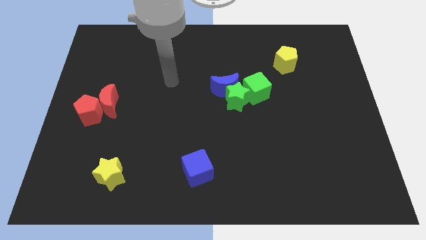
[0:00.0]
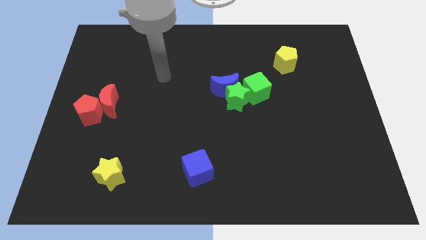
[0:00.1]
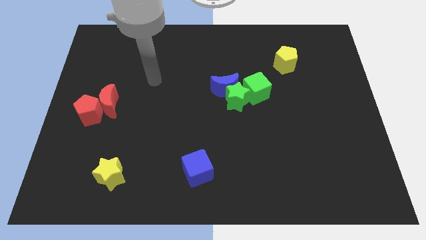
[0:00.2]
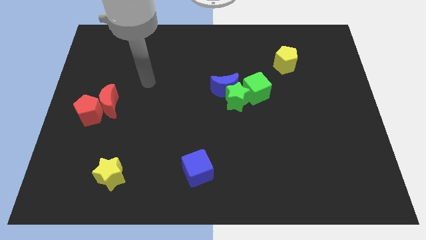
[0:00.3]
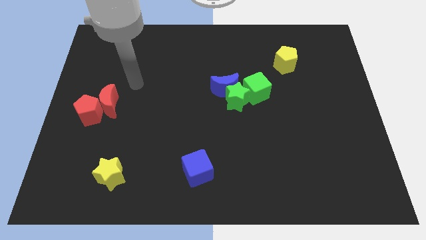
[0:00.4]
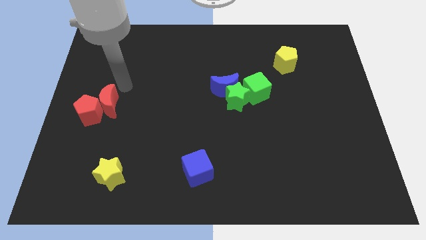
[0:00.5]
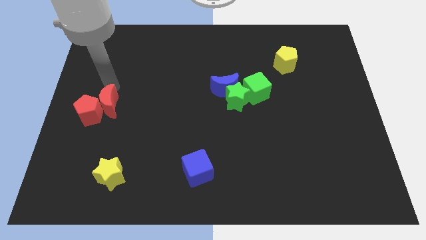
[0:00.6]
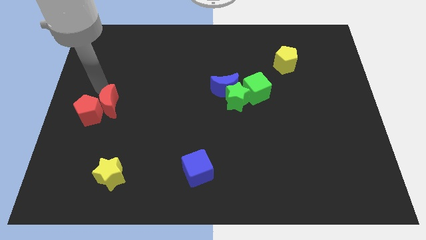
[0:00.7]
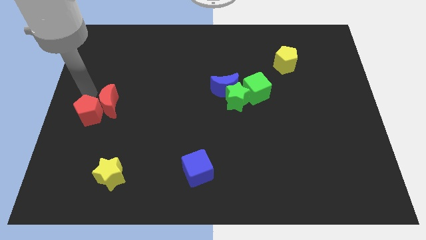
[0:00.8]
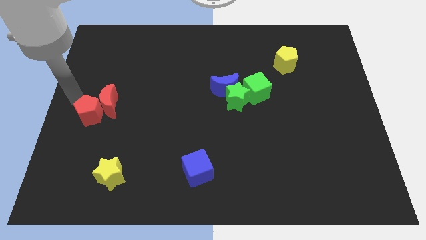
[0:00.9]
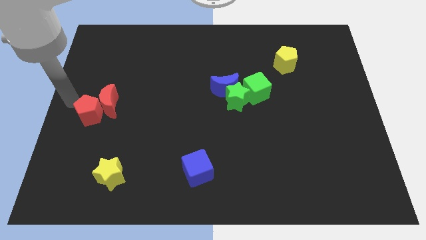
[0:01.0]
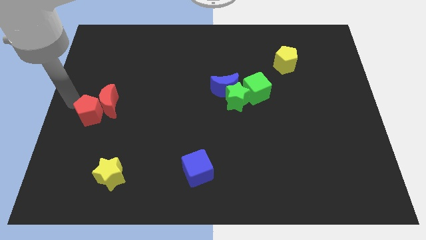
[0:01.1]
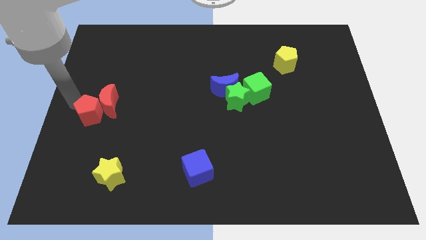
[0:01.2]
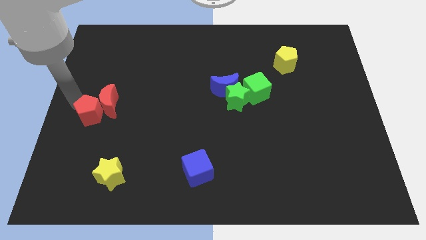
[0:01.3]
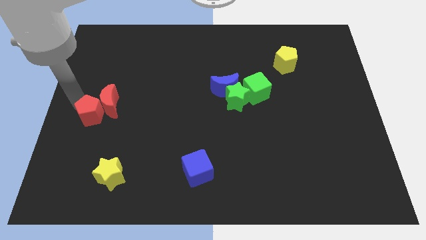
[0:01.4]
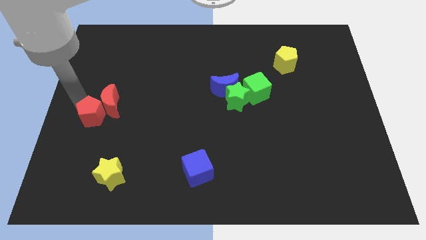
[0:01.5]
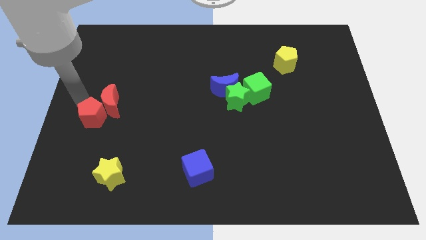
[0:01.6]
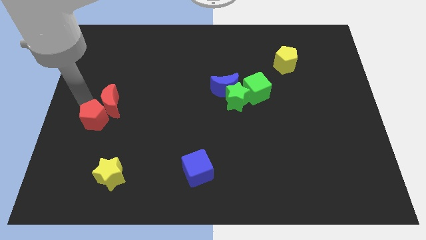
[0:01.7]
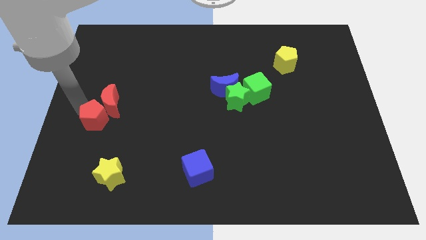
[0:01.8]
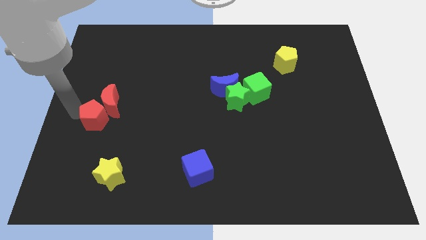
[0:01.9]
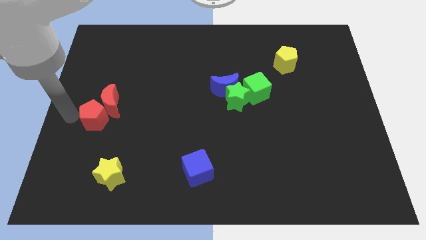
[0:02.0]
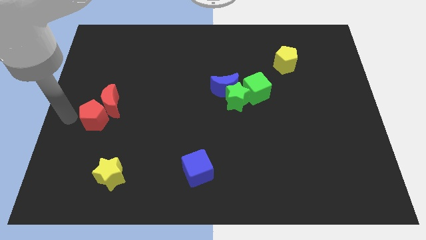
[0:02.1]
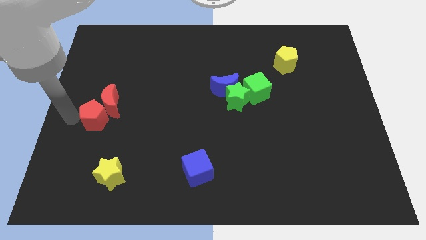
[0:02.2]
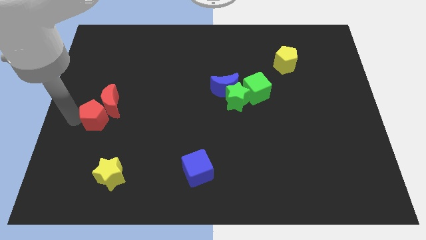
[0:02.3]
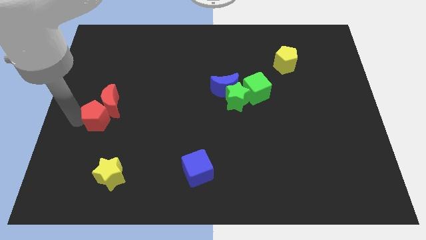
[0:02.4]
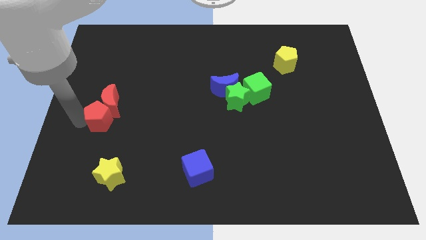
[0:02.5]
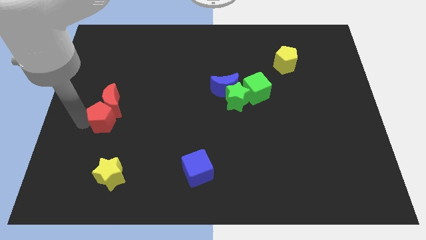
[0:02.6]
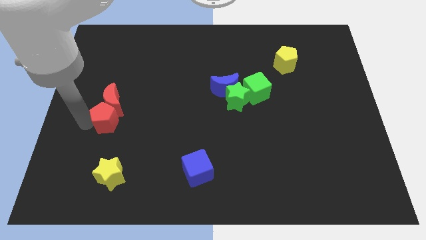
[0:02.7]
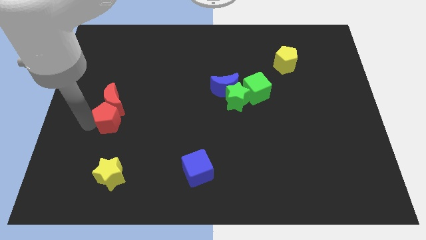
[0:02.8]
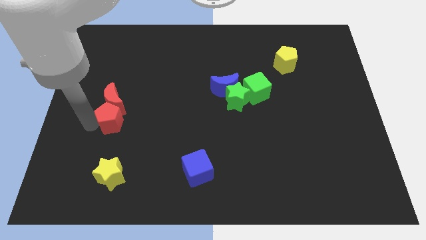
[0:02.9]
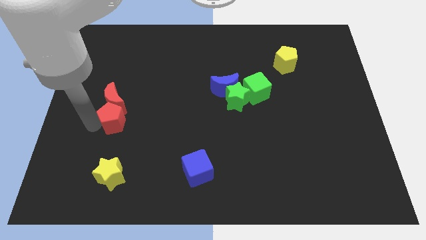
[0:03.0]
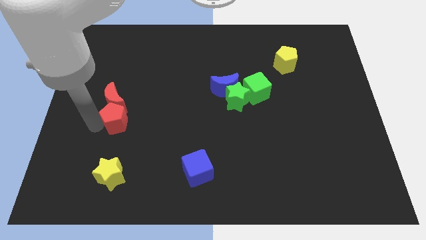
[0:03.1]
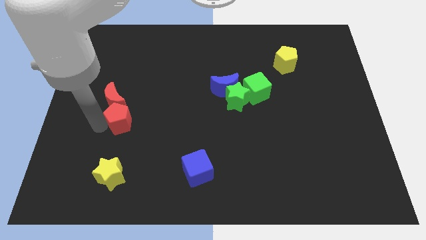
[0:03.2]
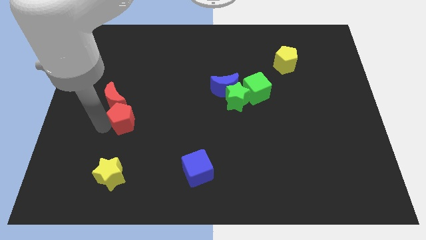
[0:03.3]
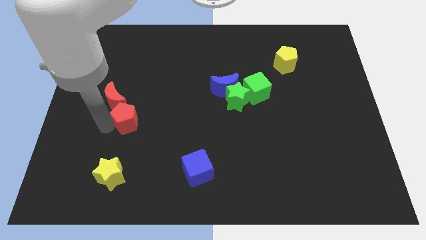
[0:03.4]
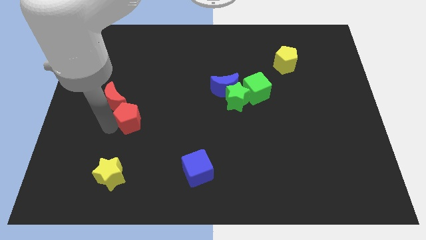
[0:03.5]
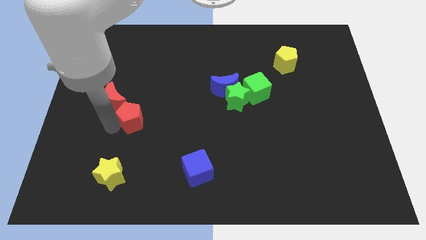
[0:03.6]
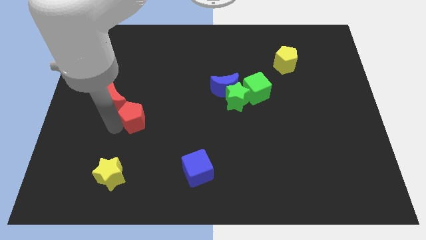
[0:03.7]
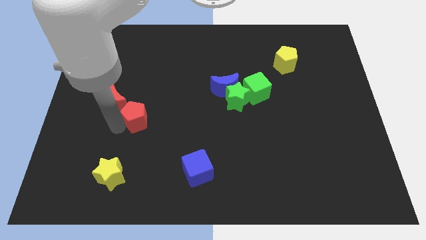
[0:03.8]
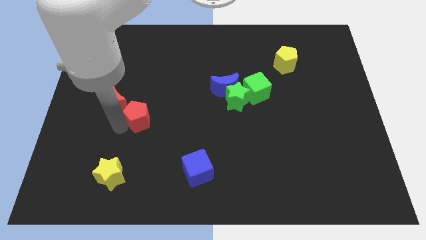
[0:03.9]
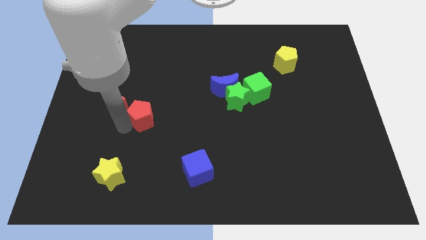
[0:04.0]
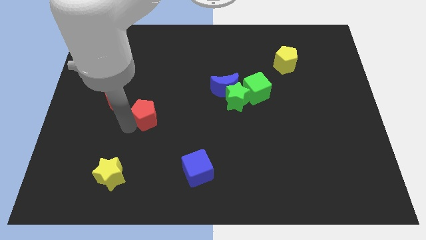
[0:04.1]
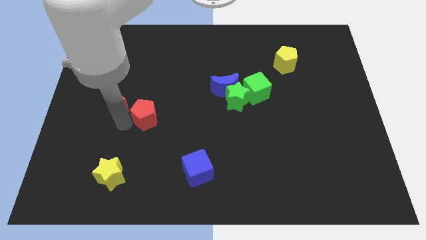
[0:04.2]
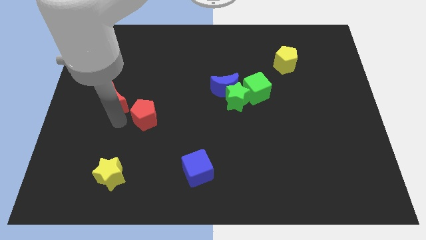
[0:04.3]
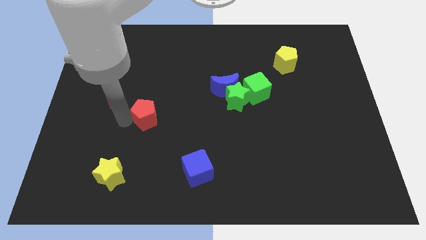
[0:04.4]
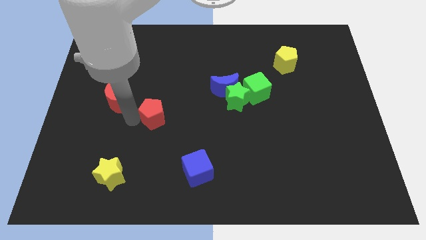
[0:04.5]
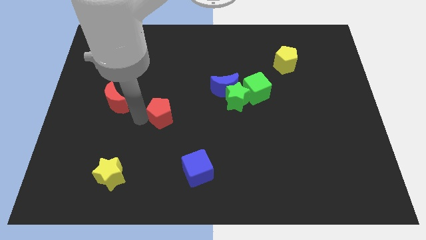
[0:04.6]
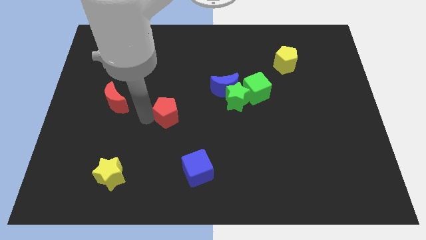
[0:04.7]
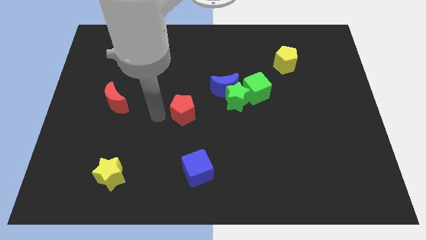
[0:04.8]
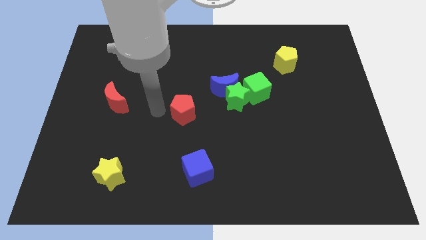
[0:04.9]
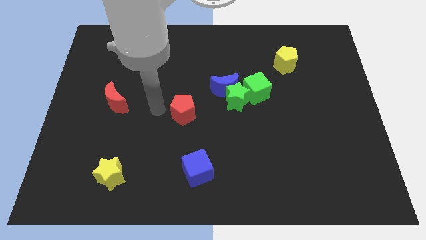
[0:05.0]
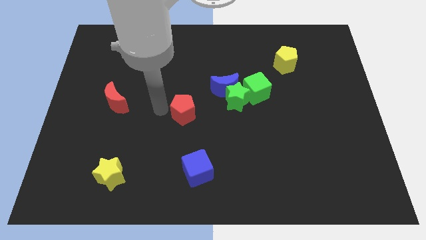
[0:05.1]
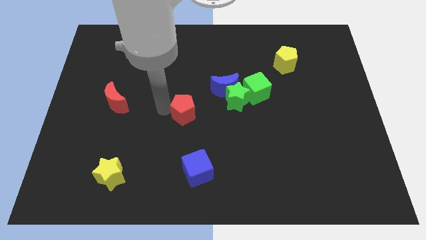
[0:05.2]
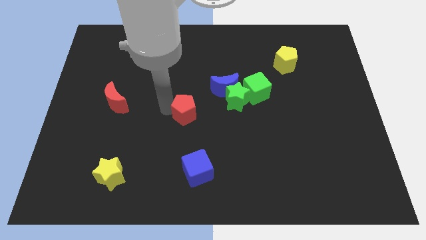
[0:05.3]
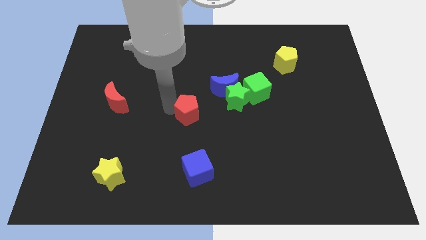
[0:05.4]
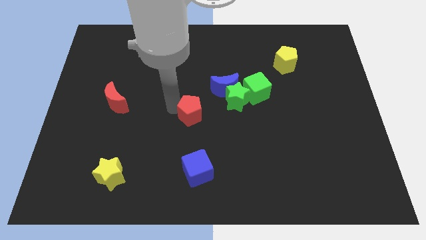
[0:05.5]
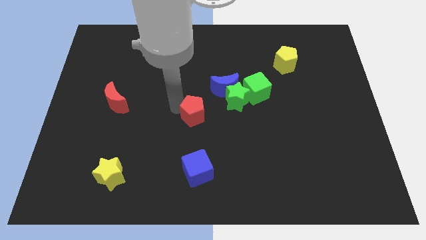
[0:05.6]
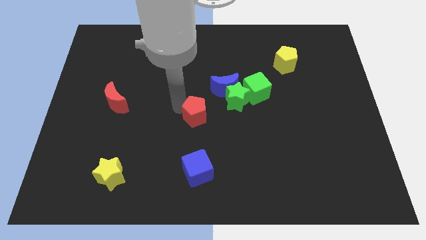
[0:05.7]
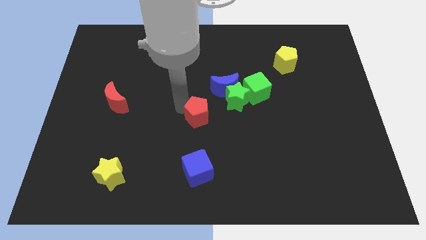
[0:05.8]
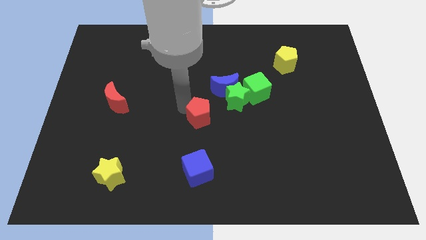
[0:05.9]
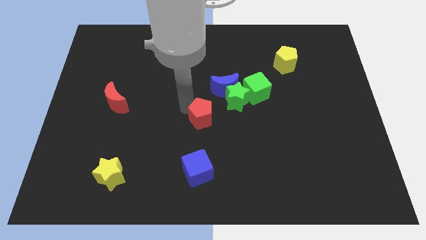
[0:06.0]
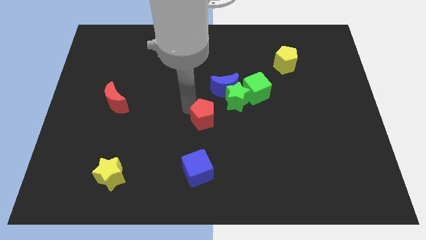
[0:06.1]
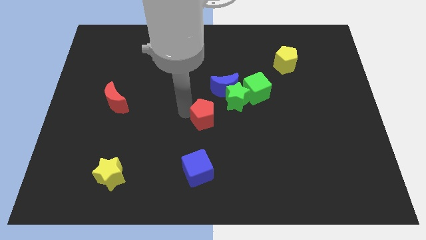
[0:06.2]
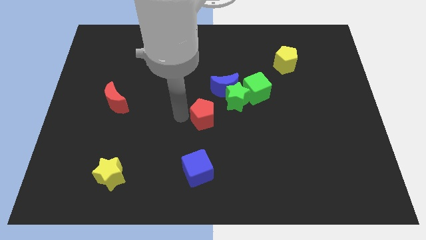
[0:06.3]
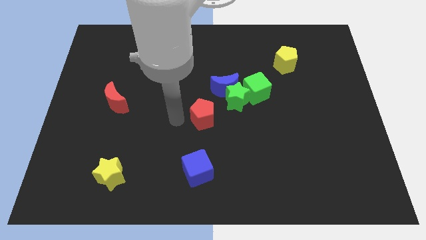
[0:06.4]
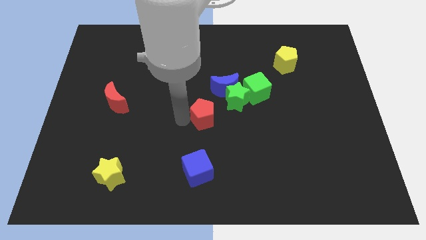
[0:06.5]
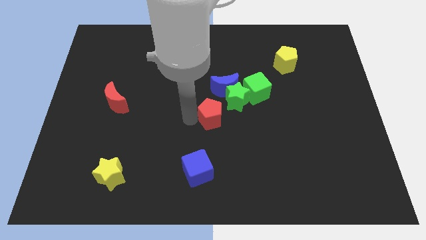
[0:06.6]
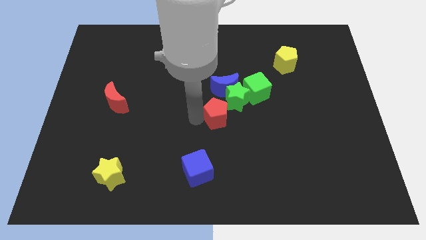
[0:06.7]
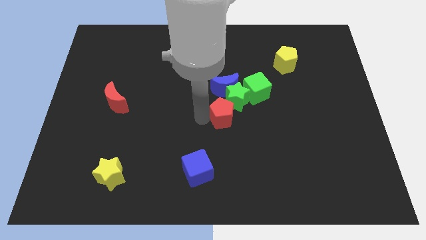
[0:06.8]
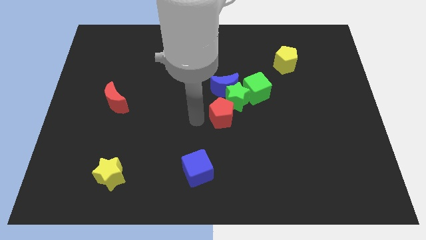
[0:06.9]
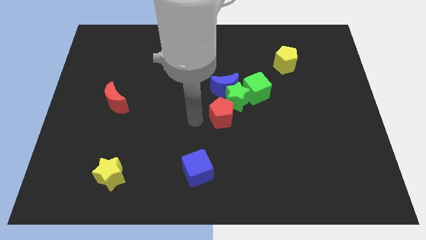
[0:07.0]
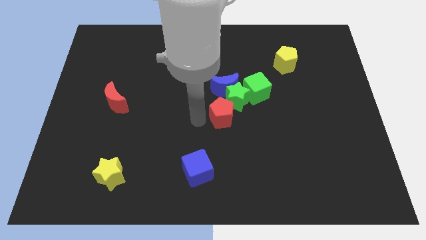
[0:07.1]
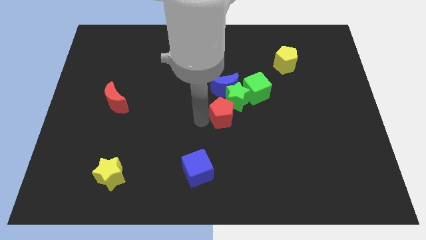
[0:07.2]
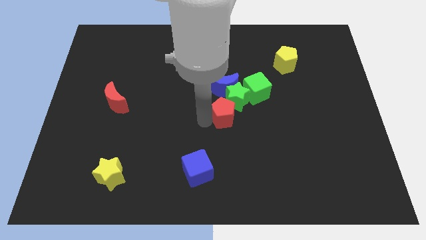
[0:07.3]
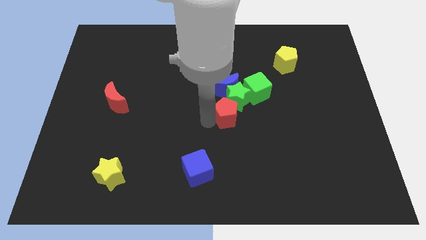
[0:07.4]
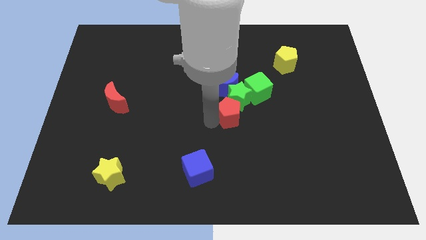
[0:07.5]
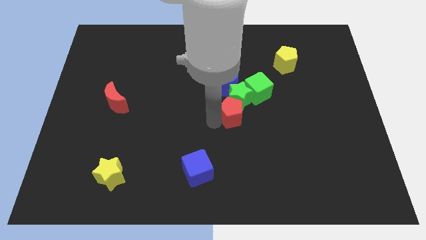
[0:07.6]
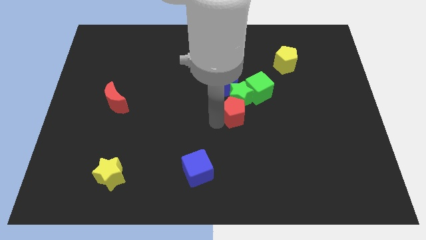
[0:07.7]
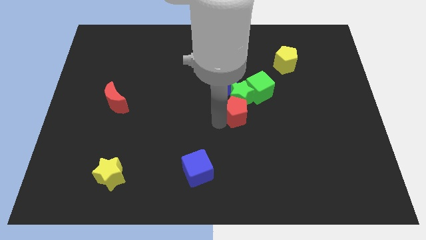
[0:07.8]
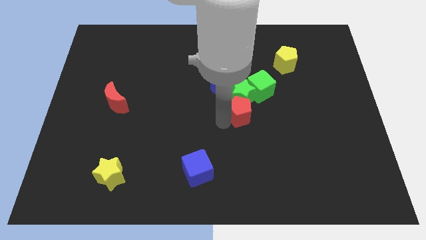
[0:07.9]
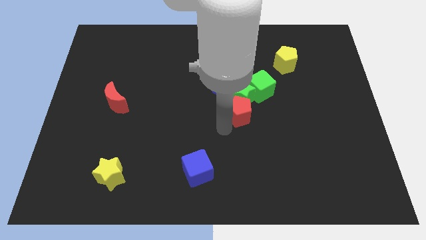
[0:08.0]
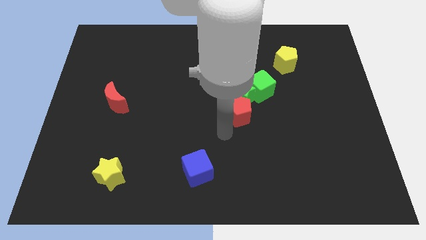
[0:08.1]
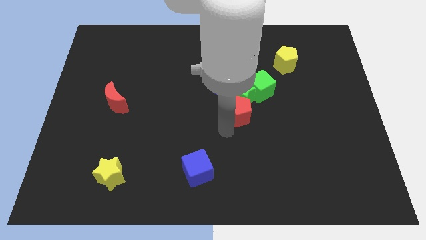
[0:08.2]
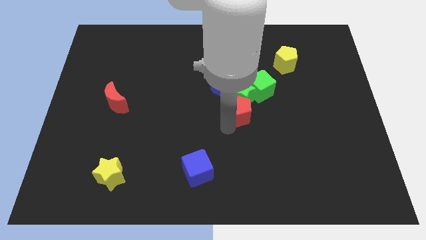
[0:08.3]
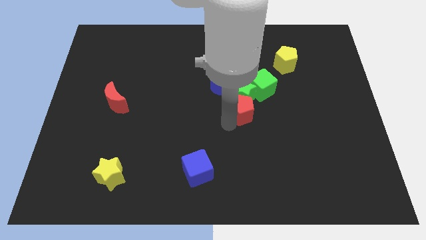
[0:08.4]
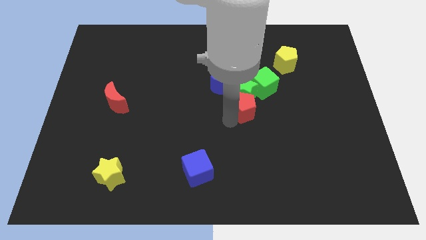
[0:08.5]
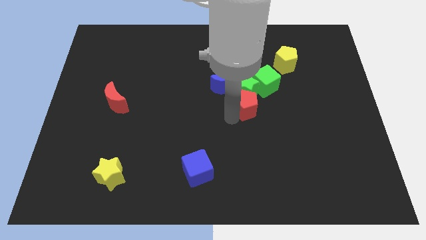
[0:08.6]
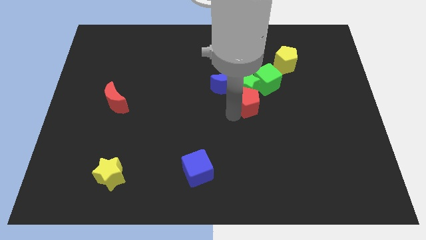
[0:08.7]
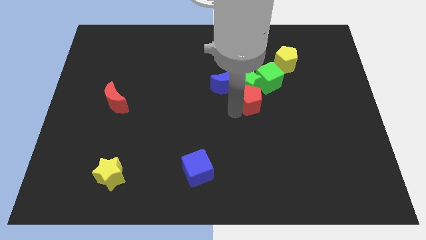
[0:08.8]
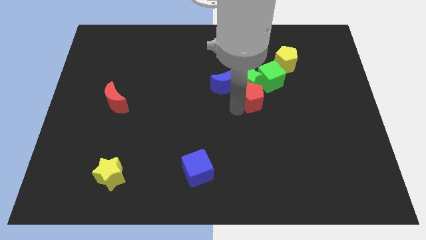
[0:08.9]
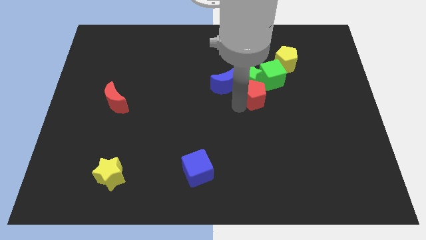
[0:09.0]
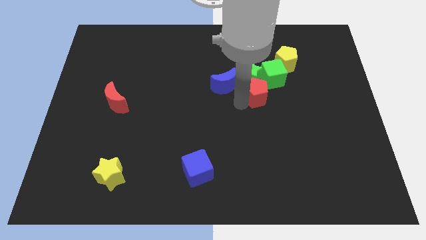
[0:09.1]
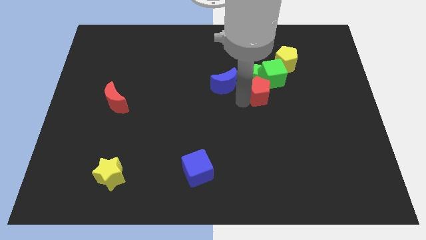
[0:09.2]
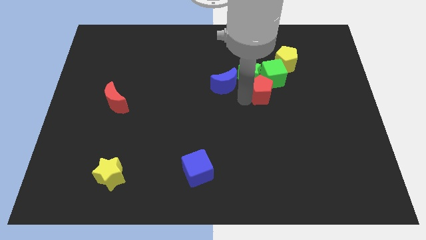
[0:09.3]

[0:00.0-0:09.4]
put the red pentagon towards the green cube
